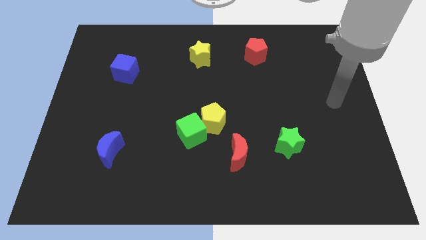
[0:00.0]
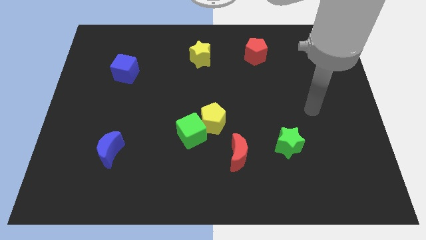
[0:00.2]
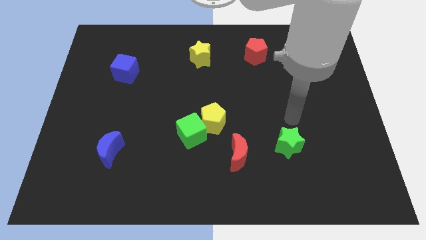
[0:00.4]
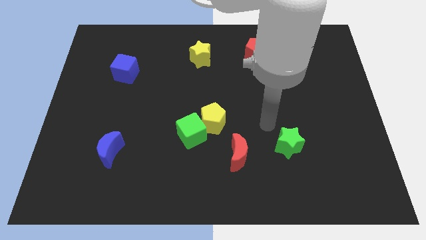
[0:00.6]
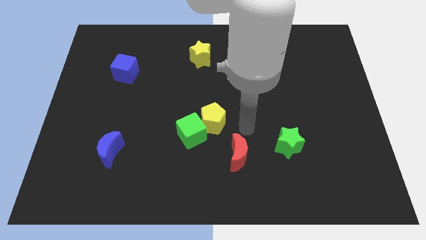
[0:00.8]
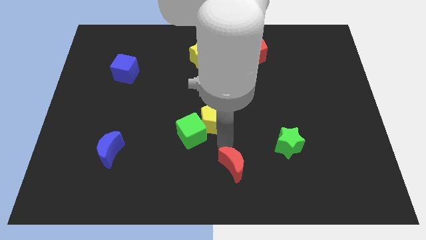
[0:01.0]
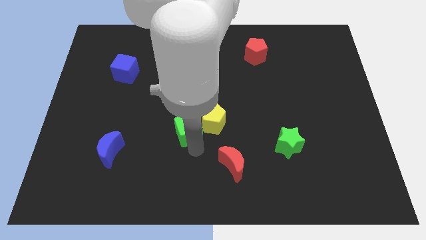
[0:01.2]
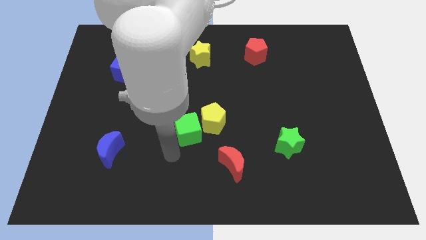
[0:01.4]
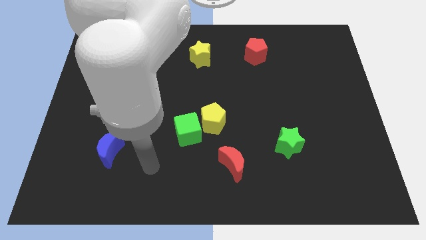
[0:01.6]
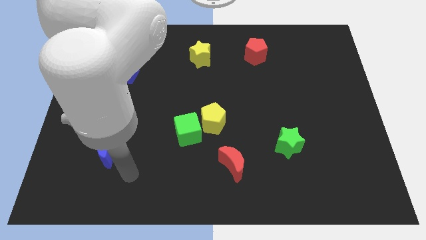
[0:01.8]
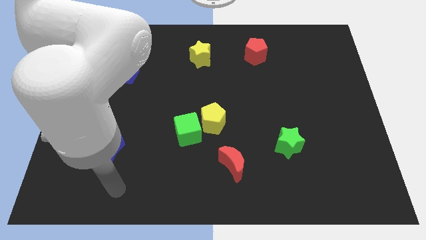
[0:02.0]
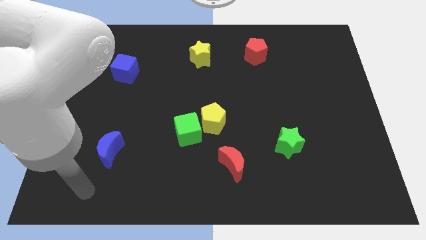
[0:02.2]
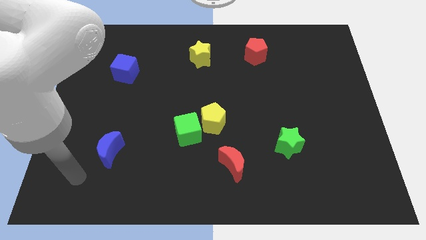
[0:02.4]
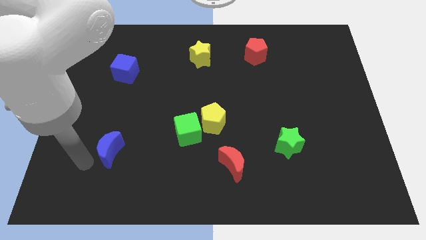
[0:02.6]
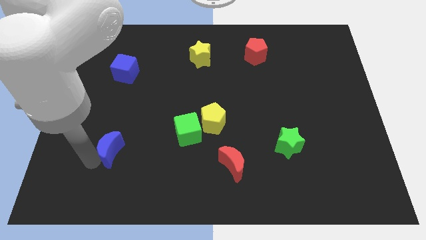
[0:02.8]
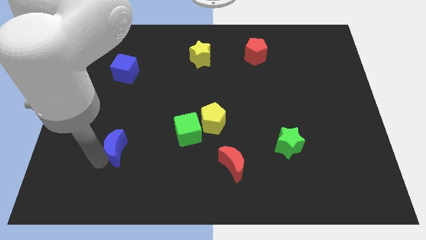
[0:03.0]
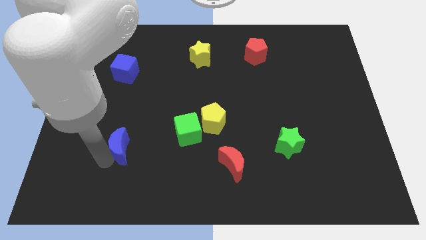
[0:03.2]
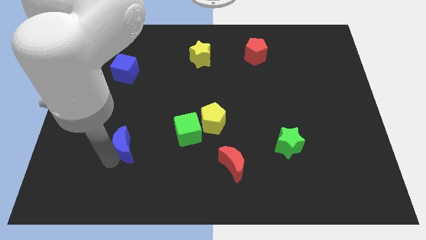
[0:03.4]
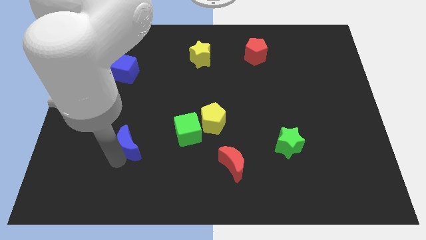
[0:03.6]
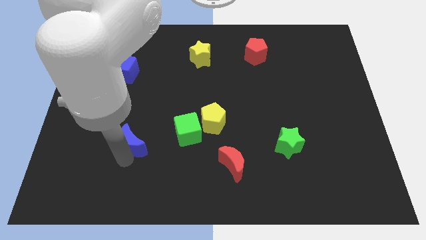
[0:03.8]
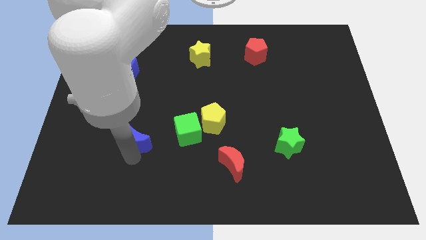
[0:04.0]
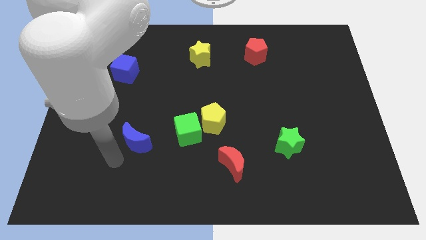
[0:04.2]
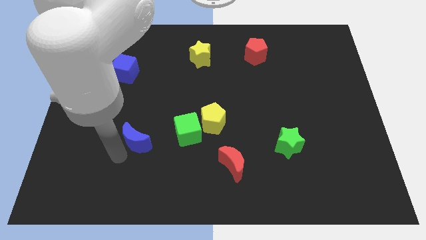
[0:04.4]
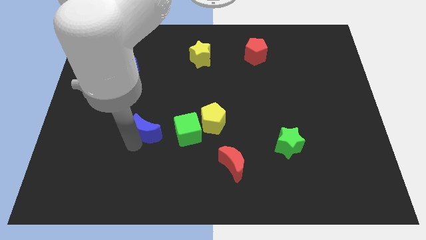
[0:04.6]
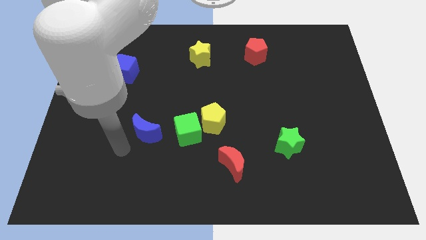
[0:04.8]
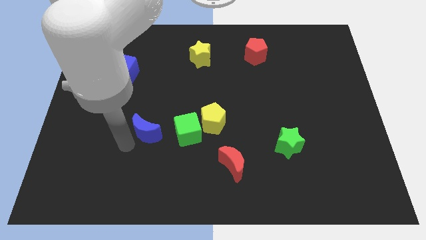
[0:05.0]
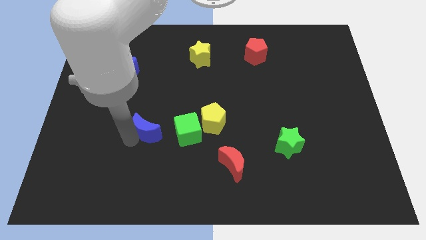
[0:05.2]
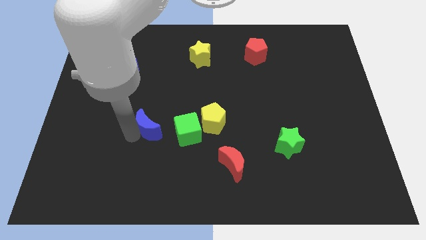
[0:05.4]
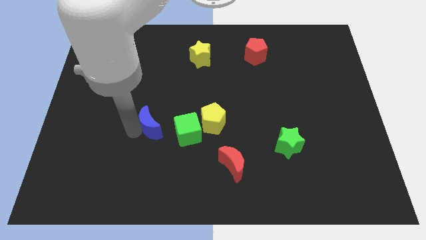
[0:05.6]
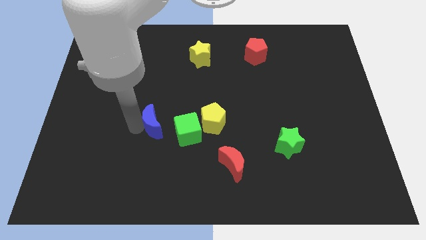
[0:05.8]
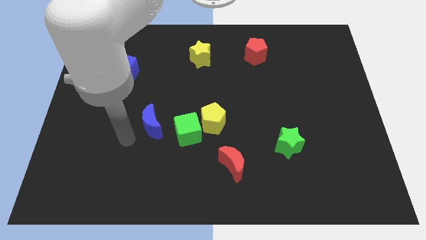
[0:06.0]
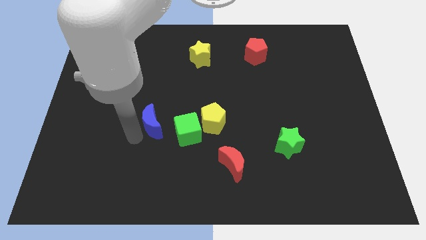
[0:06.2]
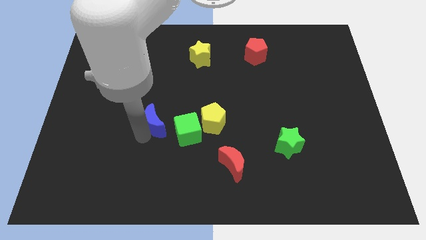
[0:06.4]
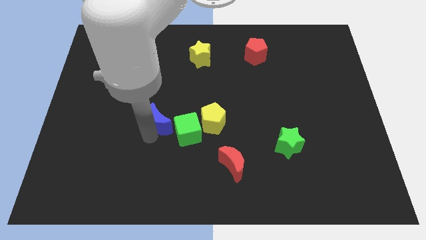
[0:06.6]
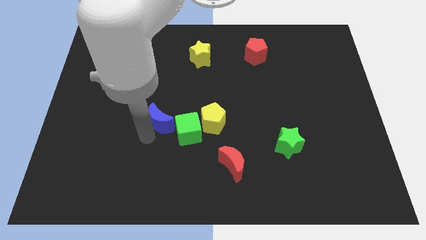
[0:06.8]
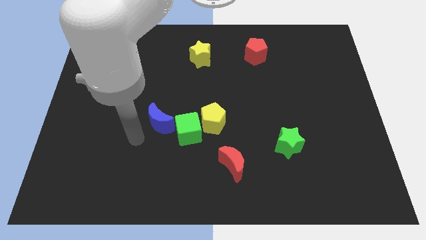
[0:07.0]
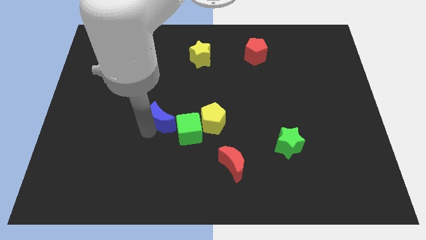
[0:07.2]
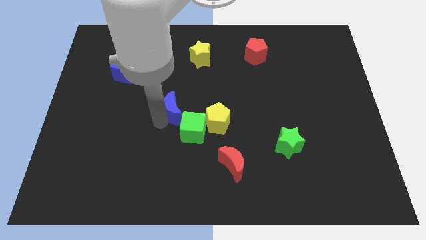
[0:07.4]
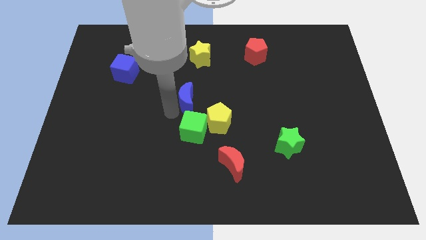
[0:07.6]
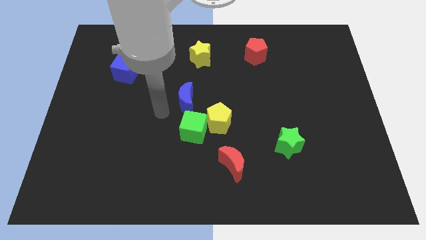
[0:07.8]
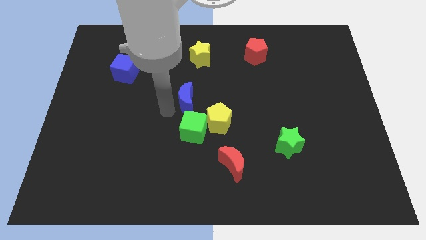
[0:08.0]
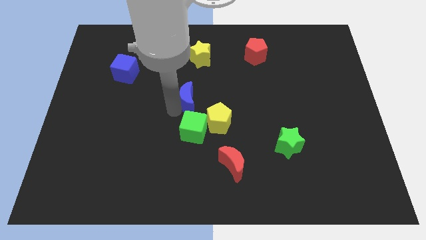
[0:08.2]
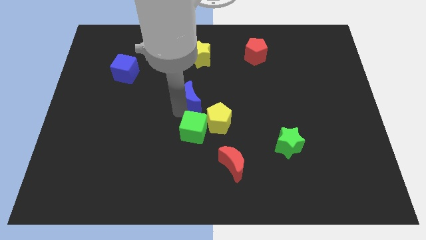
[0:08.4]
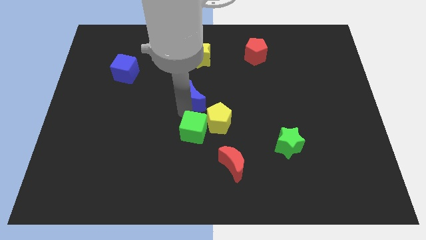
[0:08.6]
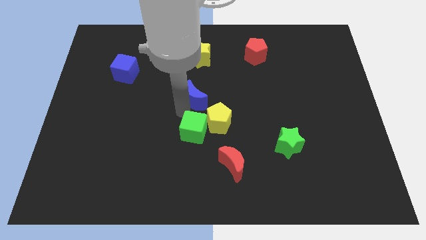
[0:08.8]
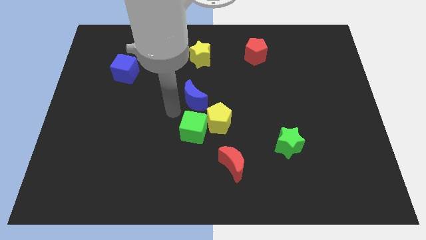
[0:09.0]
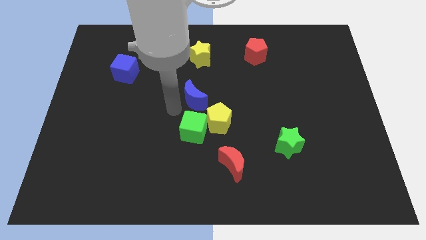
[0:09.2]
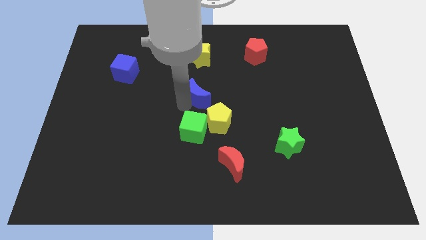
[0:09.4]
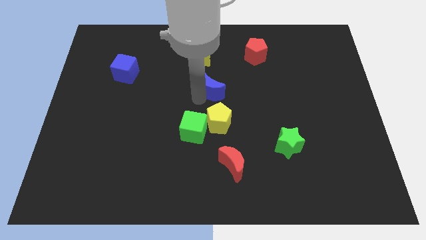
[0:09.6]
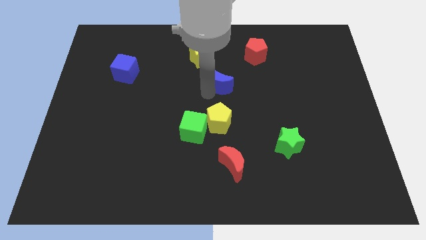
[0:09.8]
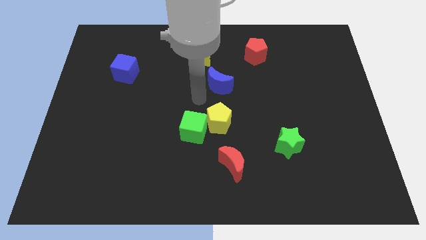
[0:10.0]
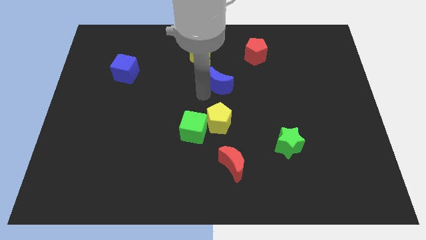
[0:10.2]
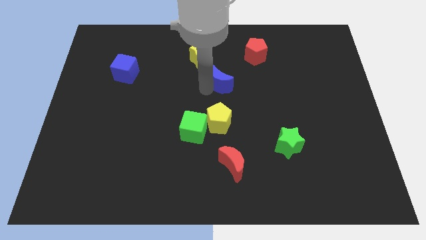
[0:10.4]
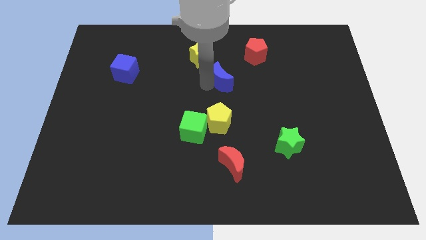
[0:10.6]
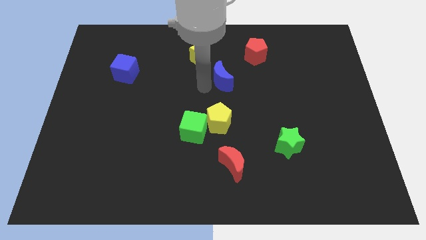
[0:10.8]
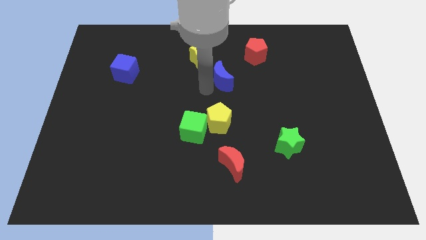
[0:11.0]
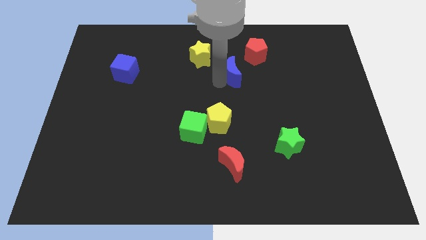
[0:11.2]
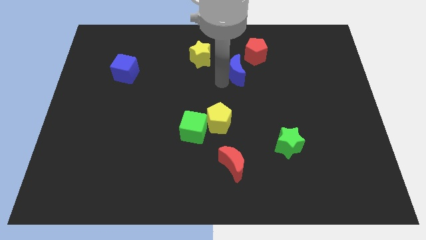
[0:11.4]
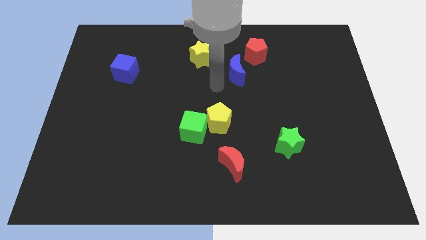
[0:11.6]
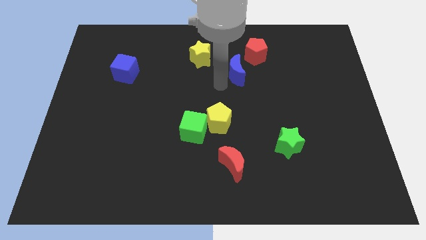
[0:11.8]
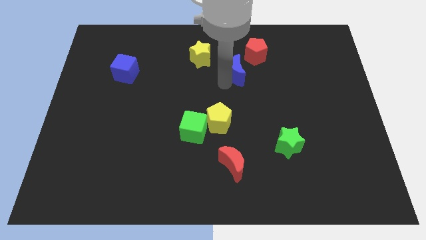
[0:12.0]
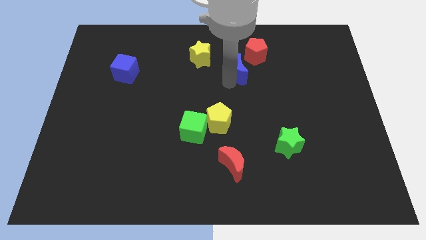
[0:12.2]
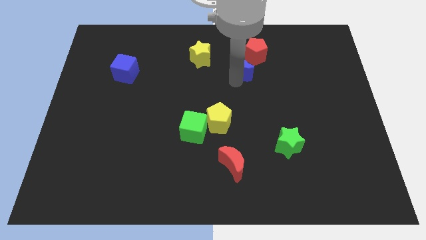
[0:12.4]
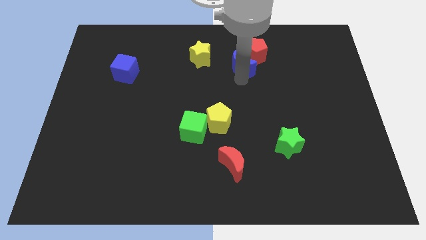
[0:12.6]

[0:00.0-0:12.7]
move the blue moon to the red pentagon

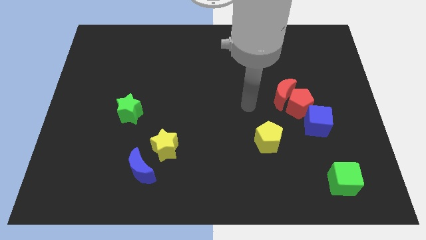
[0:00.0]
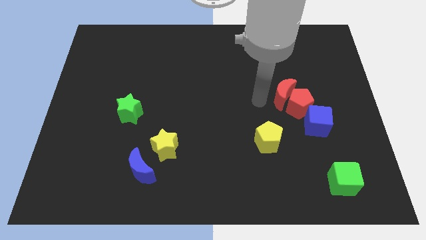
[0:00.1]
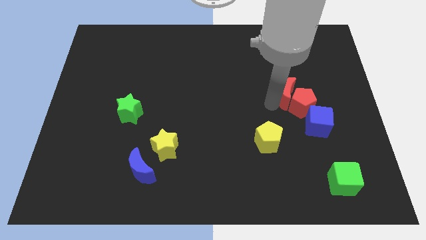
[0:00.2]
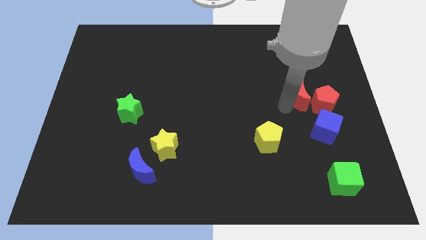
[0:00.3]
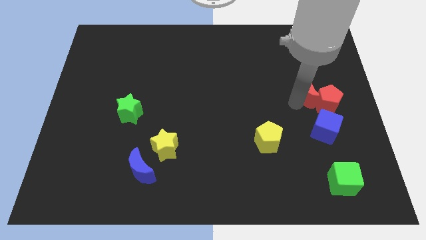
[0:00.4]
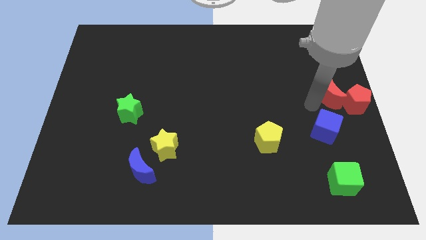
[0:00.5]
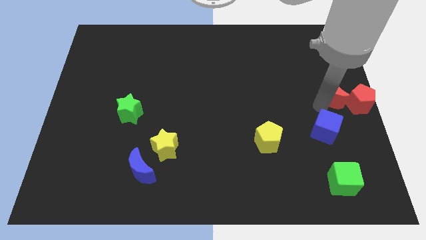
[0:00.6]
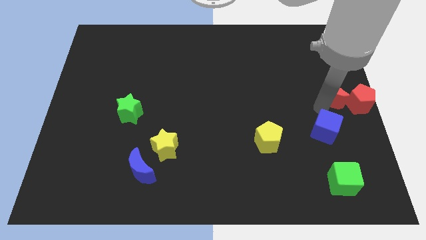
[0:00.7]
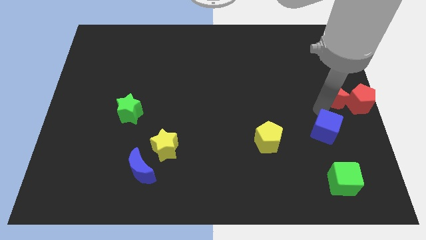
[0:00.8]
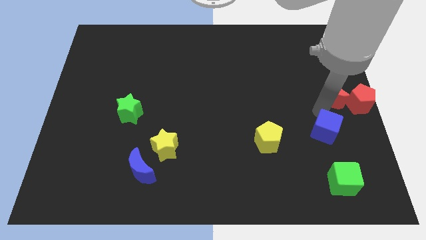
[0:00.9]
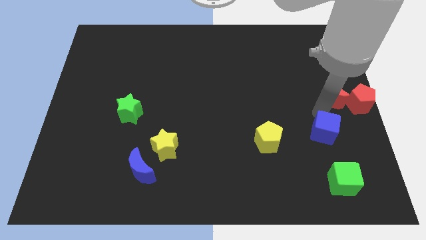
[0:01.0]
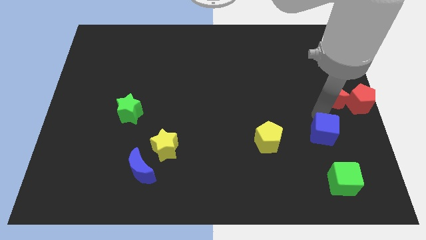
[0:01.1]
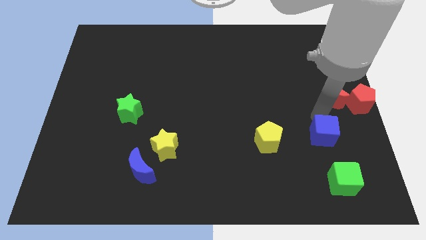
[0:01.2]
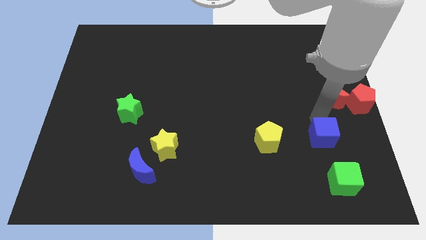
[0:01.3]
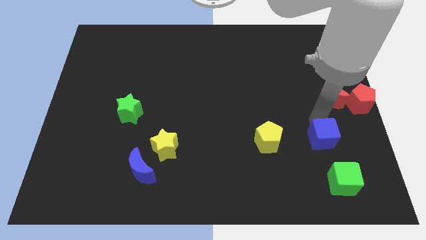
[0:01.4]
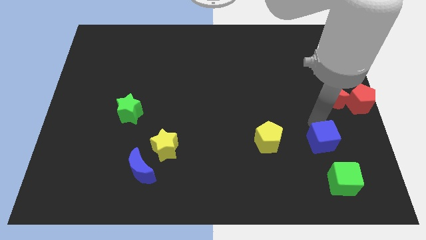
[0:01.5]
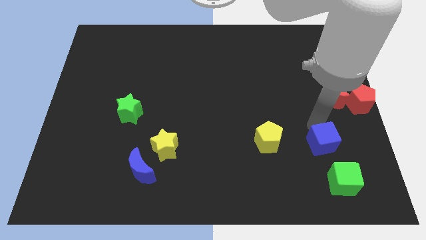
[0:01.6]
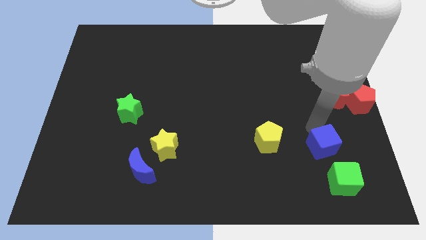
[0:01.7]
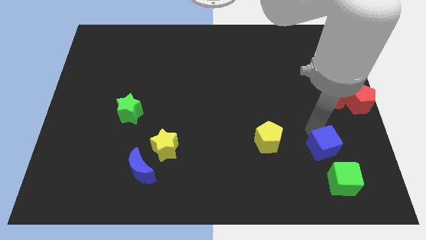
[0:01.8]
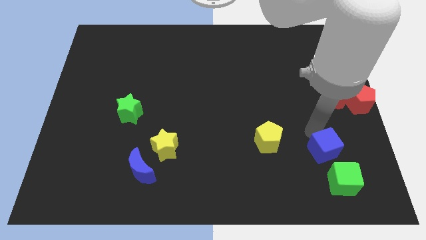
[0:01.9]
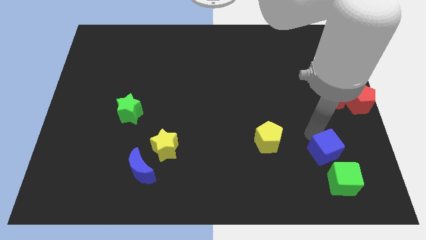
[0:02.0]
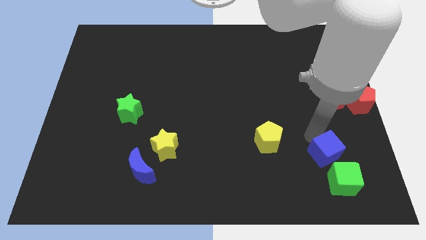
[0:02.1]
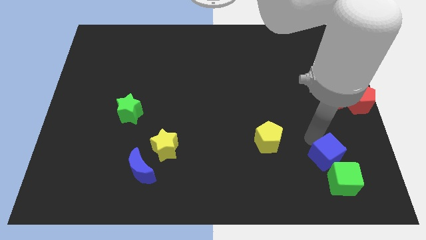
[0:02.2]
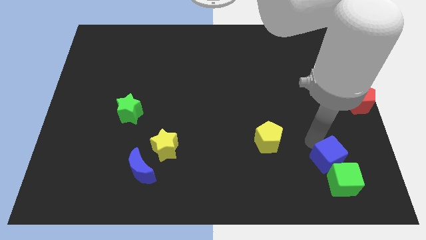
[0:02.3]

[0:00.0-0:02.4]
put the blue cube close to the green cube
